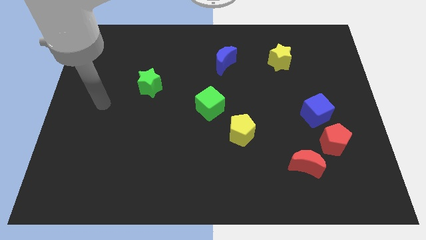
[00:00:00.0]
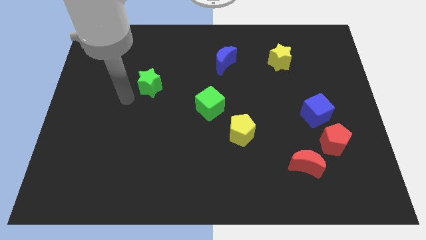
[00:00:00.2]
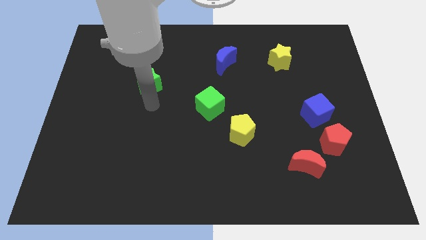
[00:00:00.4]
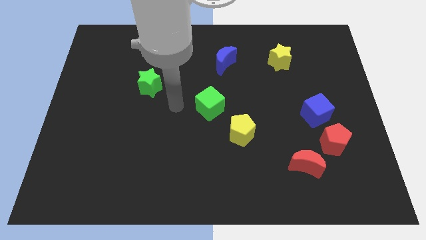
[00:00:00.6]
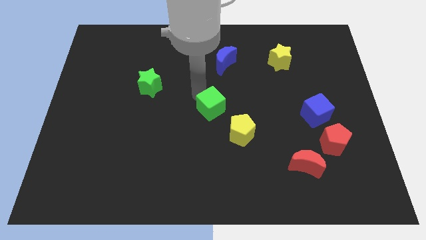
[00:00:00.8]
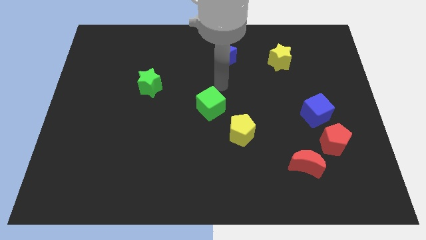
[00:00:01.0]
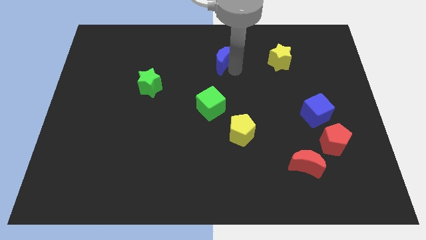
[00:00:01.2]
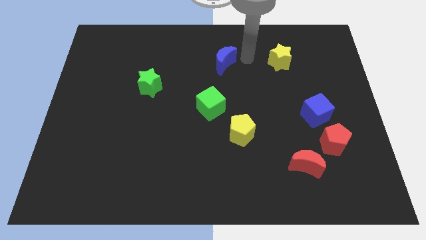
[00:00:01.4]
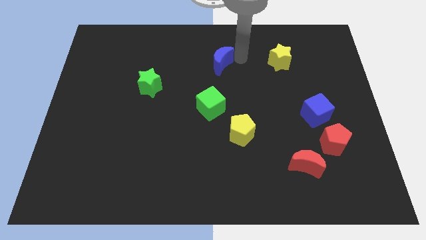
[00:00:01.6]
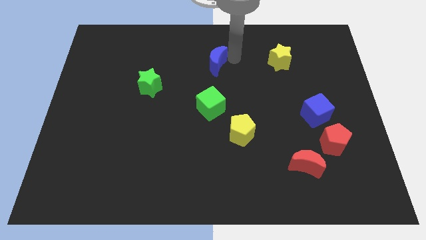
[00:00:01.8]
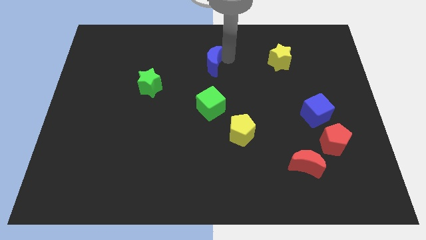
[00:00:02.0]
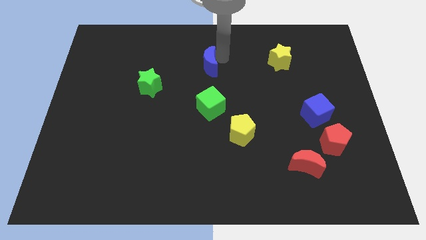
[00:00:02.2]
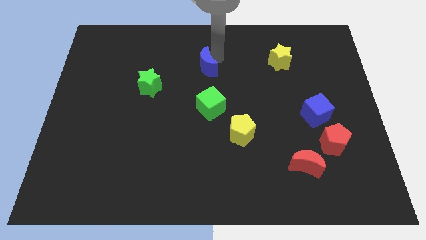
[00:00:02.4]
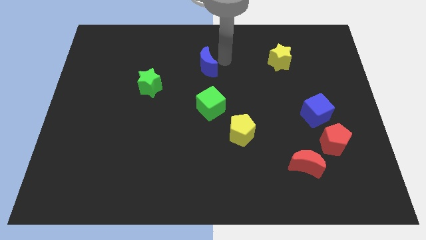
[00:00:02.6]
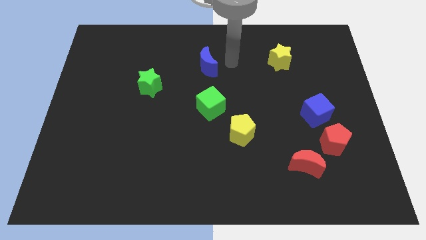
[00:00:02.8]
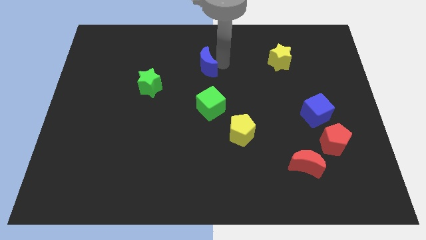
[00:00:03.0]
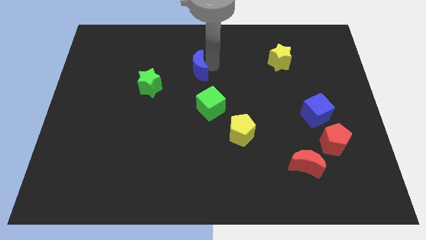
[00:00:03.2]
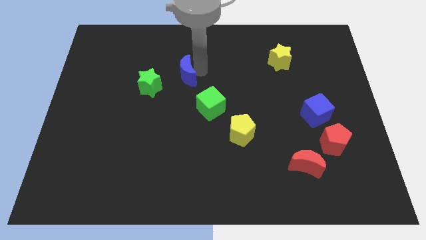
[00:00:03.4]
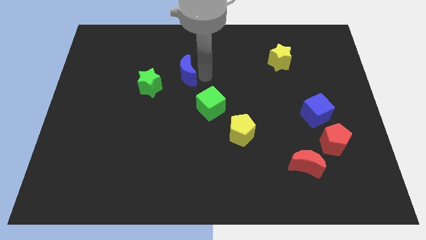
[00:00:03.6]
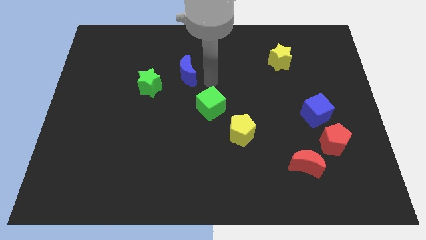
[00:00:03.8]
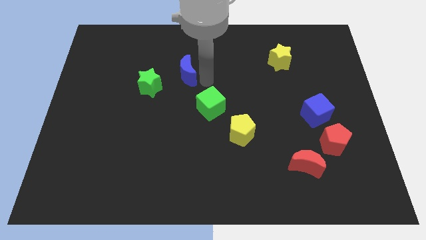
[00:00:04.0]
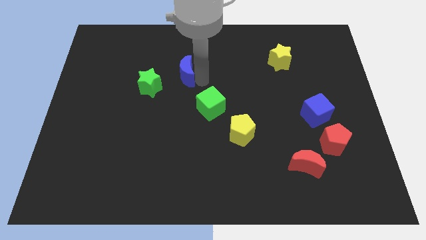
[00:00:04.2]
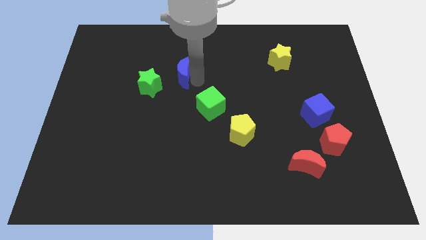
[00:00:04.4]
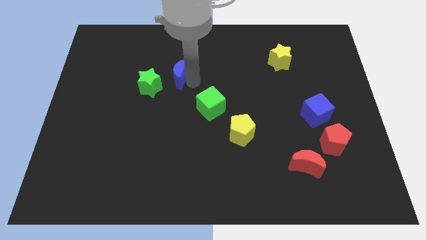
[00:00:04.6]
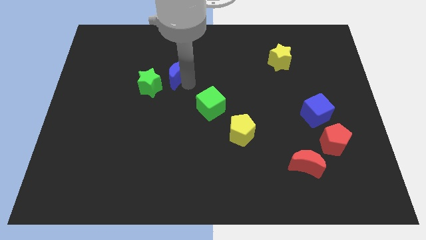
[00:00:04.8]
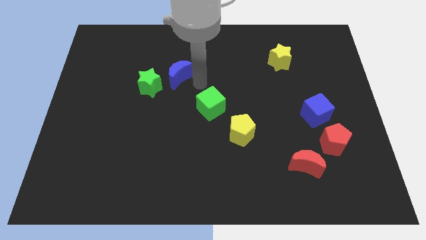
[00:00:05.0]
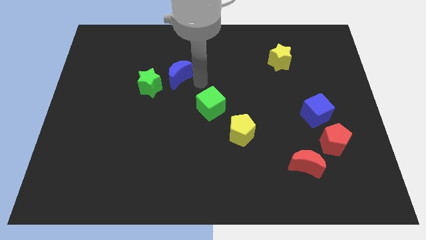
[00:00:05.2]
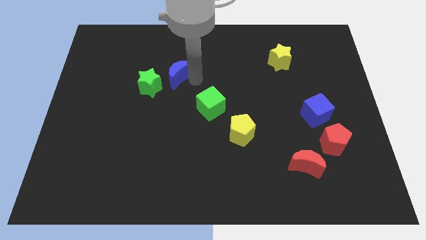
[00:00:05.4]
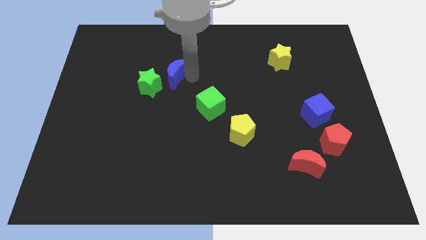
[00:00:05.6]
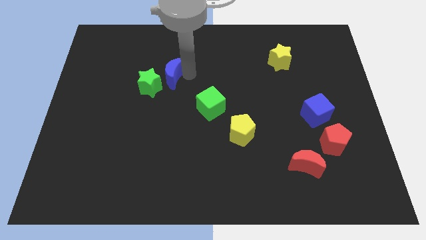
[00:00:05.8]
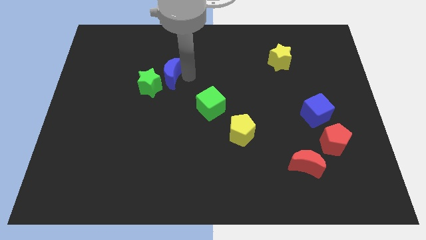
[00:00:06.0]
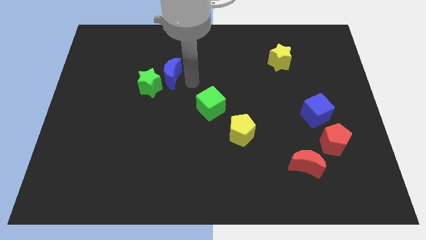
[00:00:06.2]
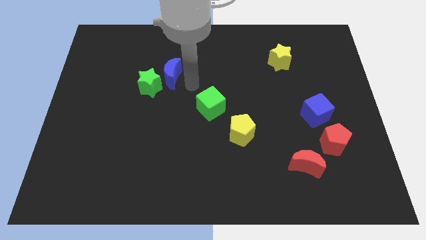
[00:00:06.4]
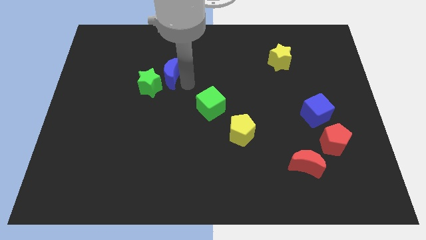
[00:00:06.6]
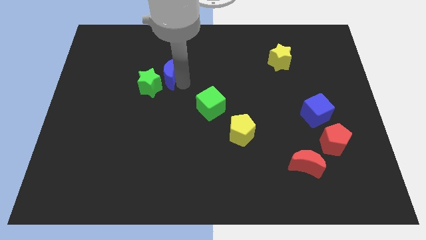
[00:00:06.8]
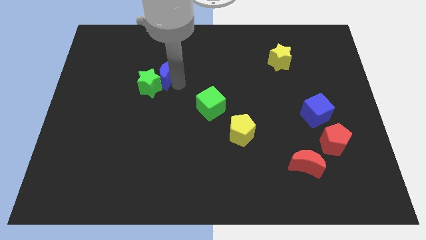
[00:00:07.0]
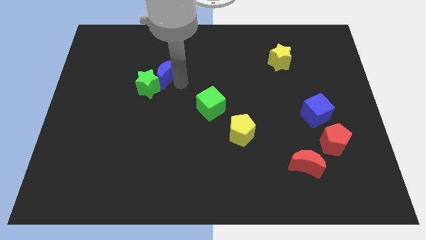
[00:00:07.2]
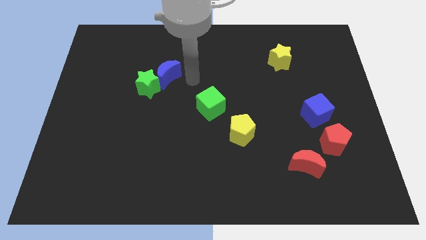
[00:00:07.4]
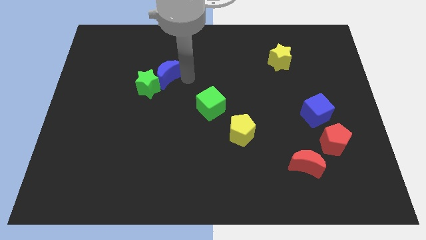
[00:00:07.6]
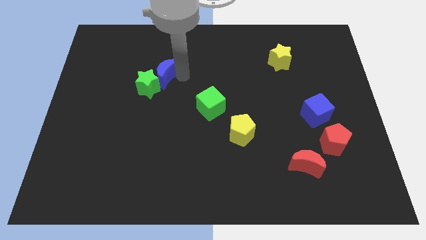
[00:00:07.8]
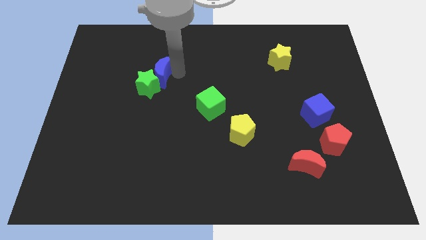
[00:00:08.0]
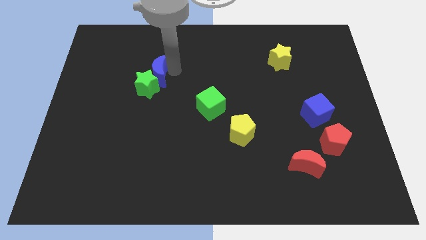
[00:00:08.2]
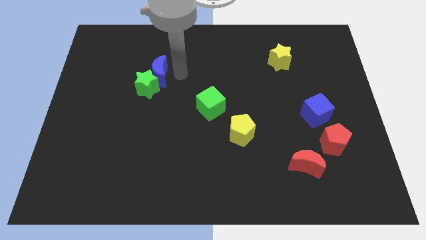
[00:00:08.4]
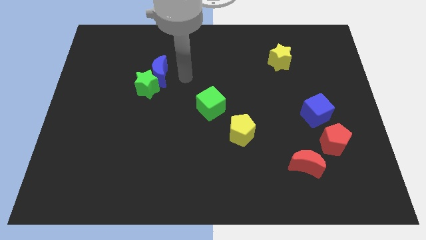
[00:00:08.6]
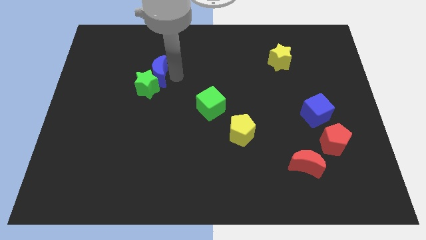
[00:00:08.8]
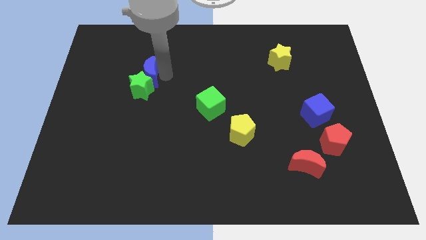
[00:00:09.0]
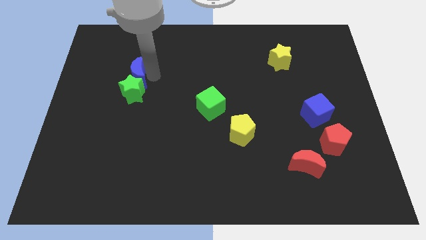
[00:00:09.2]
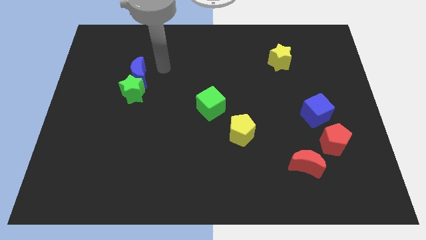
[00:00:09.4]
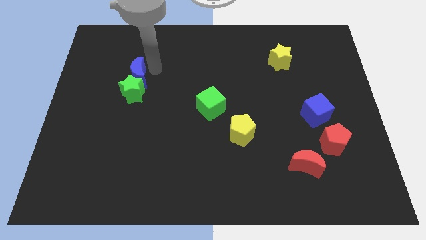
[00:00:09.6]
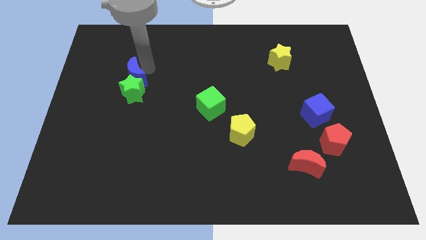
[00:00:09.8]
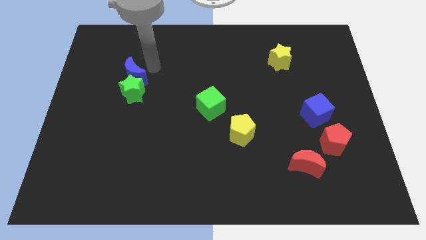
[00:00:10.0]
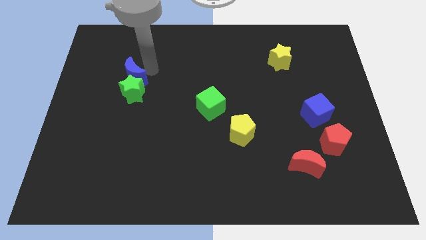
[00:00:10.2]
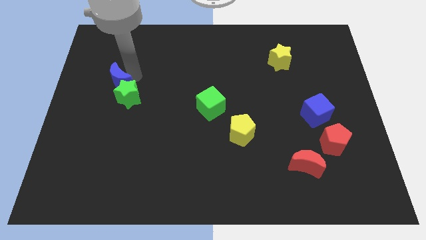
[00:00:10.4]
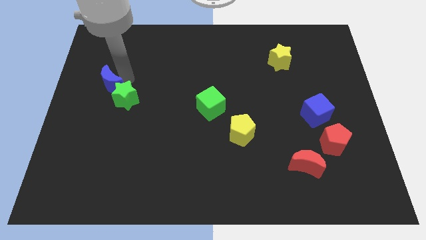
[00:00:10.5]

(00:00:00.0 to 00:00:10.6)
push the blue moon to the left of the green star

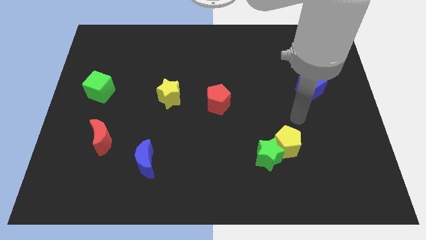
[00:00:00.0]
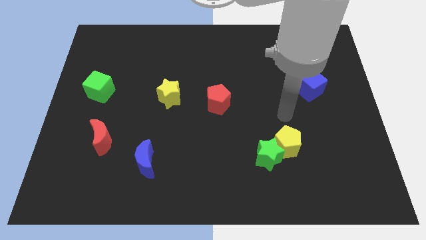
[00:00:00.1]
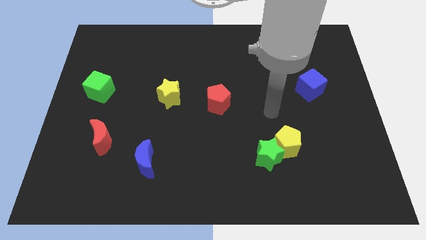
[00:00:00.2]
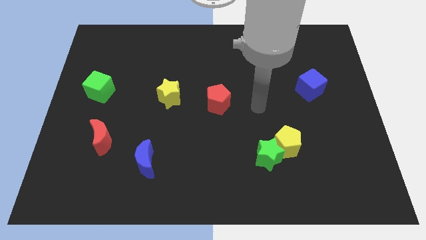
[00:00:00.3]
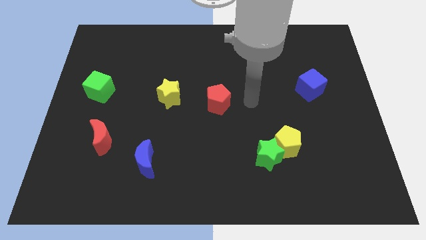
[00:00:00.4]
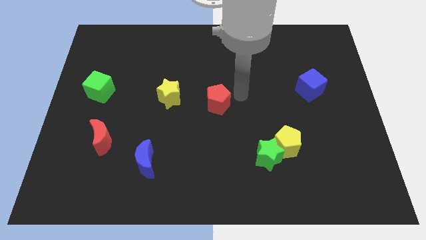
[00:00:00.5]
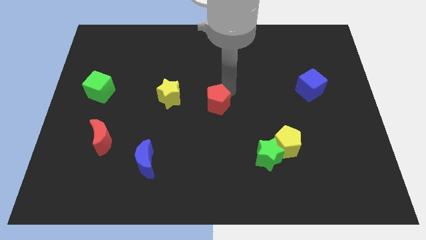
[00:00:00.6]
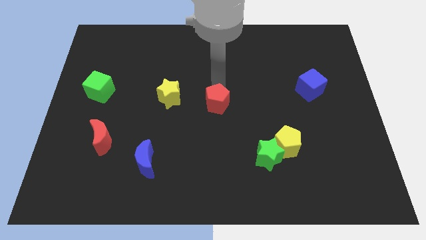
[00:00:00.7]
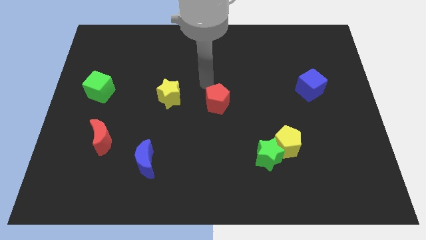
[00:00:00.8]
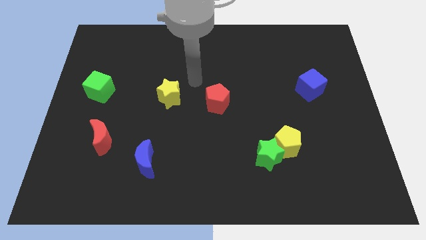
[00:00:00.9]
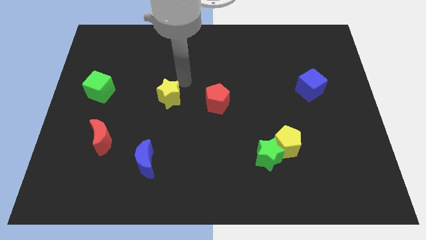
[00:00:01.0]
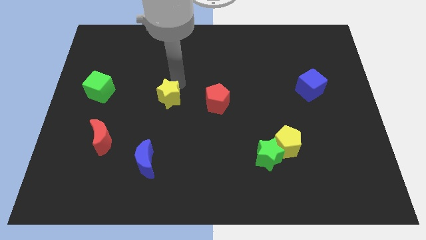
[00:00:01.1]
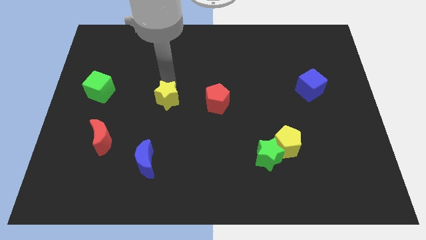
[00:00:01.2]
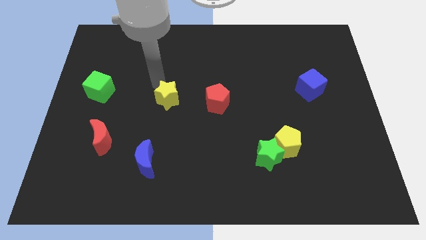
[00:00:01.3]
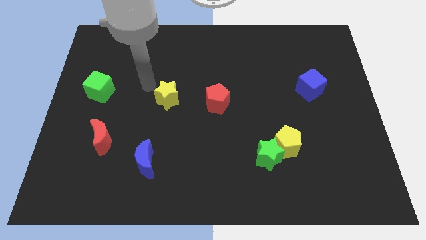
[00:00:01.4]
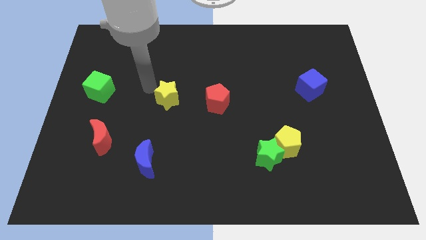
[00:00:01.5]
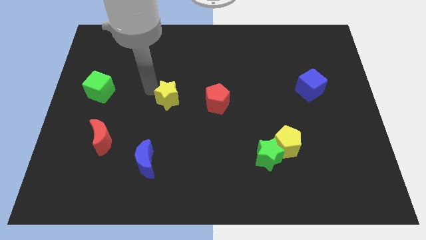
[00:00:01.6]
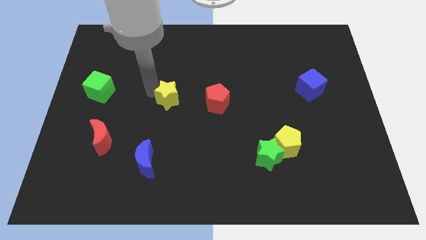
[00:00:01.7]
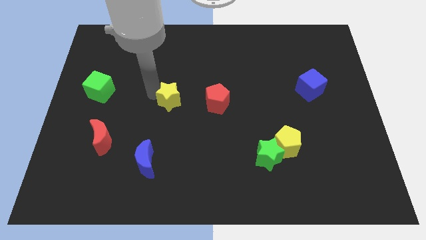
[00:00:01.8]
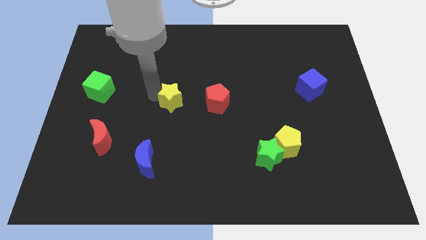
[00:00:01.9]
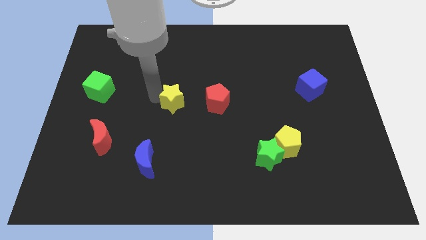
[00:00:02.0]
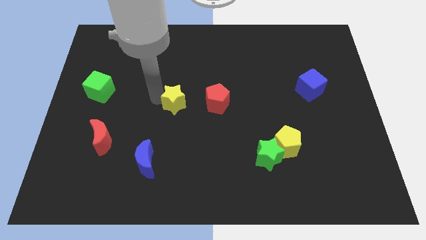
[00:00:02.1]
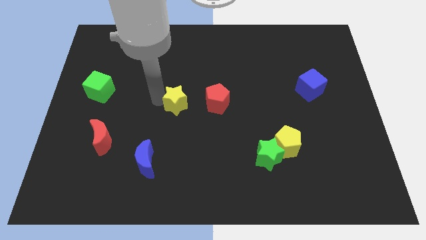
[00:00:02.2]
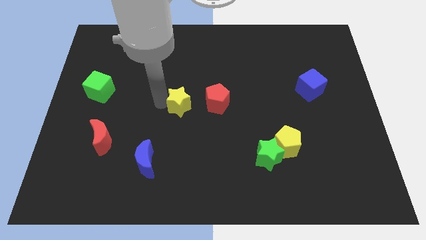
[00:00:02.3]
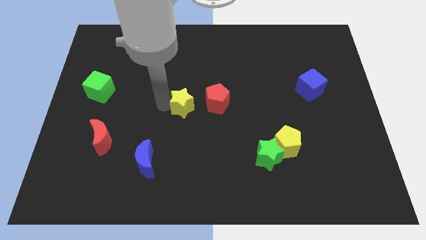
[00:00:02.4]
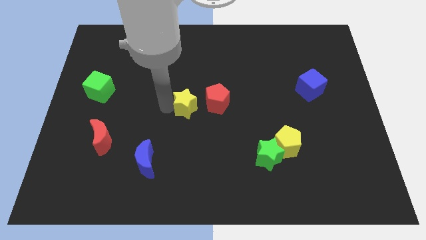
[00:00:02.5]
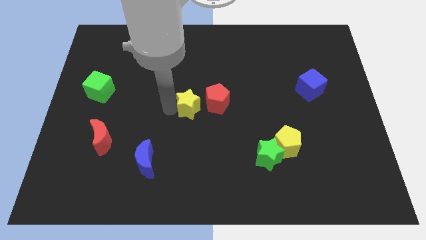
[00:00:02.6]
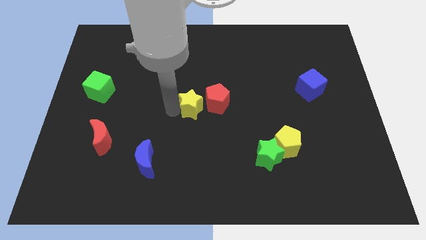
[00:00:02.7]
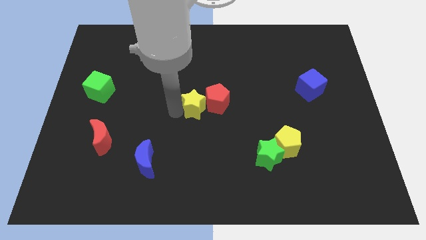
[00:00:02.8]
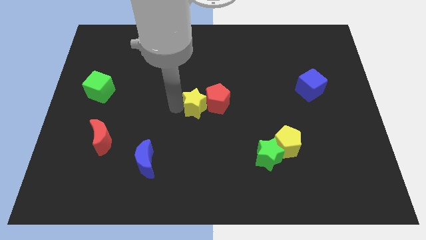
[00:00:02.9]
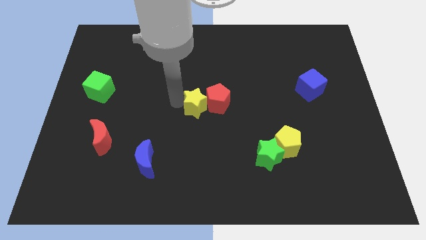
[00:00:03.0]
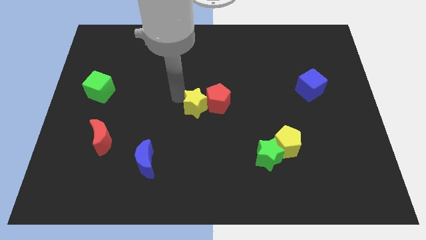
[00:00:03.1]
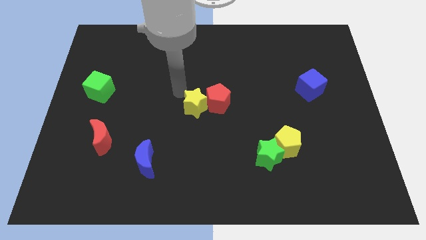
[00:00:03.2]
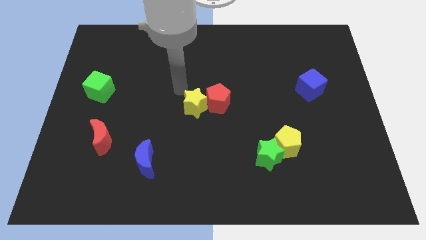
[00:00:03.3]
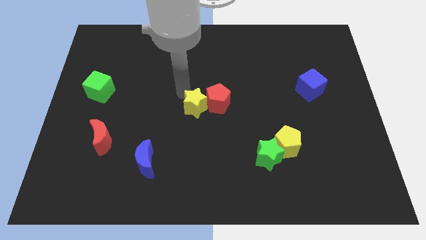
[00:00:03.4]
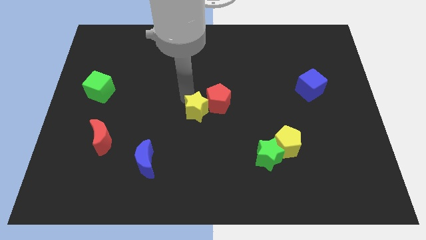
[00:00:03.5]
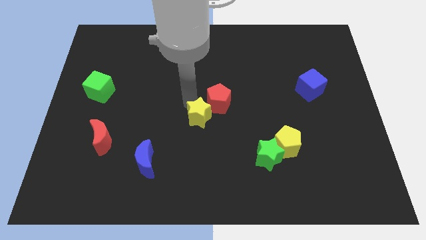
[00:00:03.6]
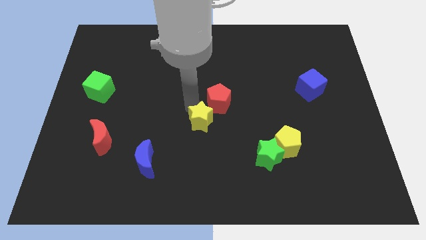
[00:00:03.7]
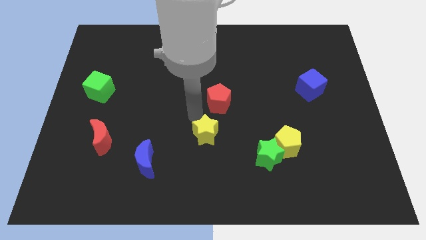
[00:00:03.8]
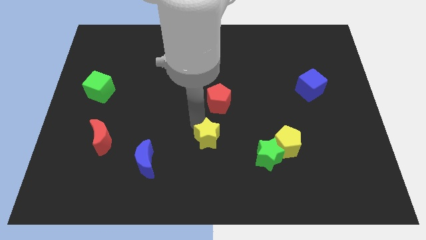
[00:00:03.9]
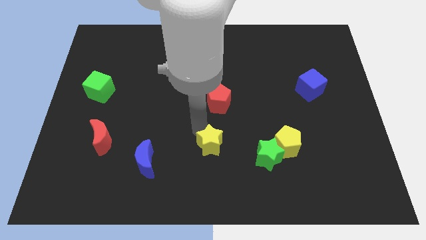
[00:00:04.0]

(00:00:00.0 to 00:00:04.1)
slide the yellow star to the left of the yellow pentagon
